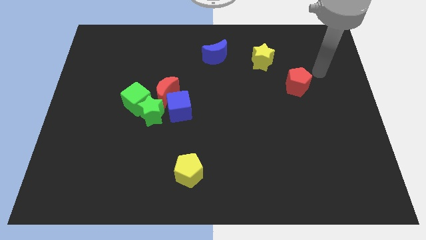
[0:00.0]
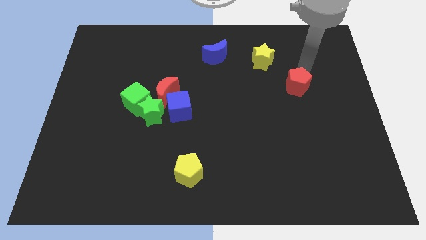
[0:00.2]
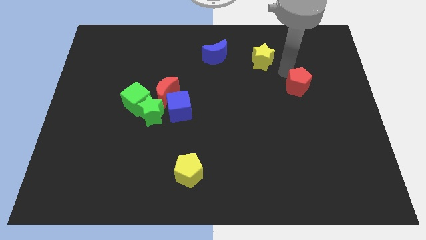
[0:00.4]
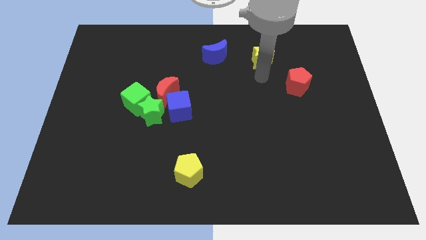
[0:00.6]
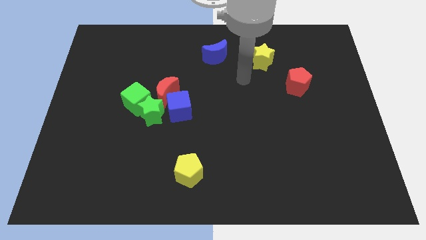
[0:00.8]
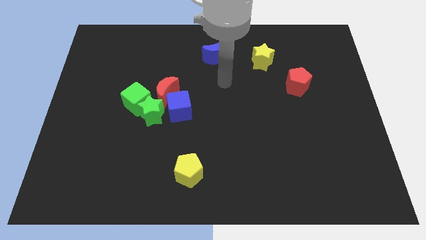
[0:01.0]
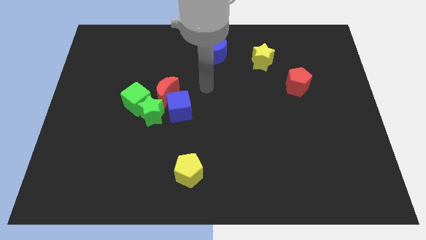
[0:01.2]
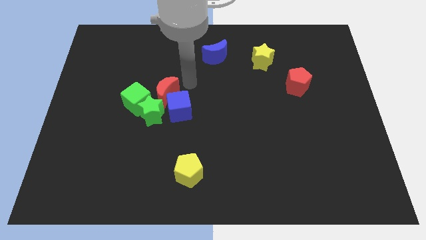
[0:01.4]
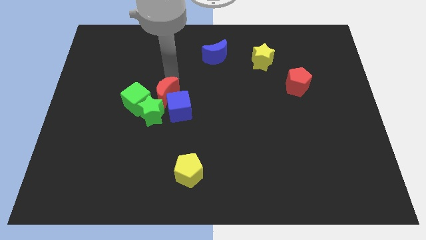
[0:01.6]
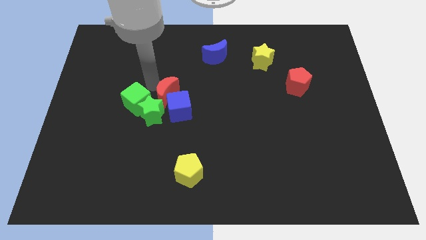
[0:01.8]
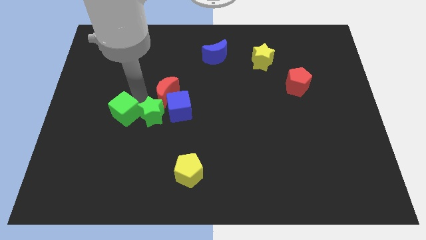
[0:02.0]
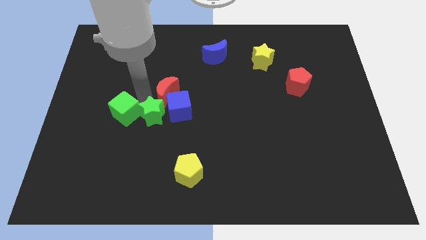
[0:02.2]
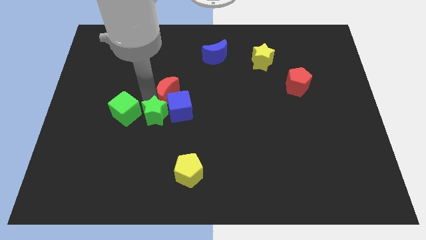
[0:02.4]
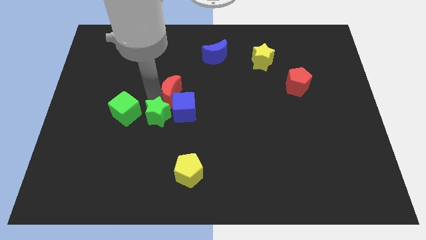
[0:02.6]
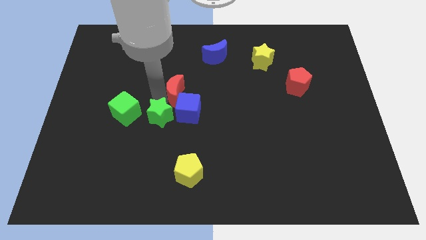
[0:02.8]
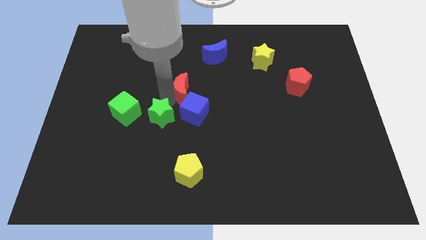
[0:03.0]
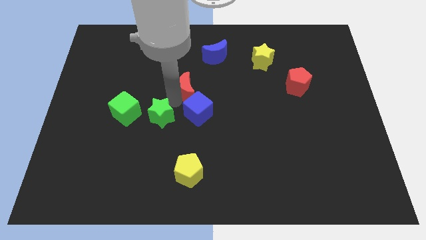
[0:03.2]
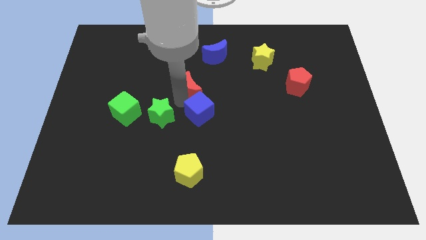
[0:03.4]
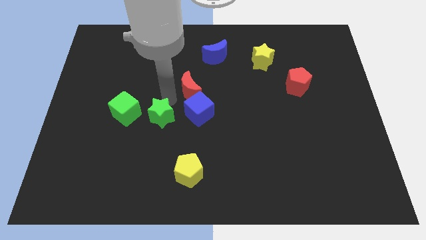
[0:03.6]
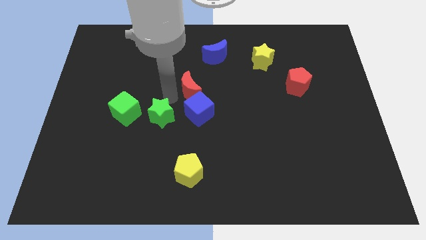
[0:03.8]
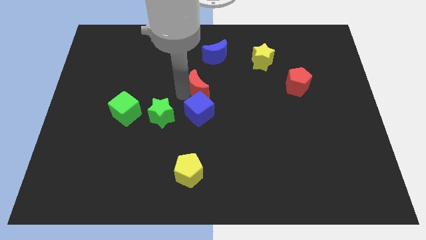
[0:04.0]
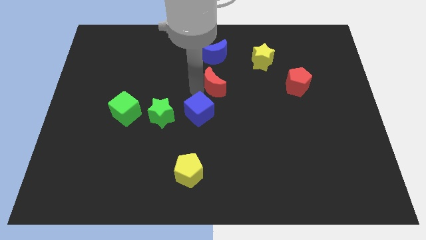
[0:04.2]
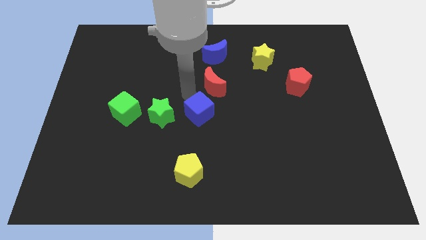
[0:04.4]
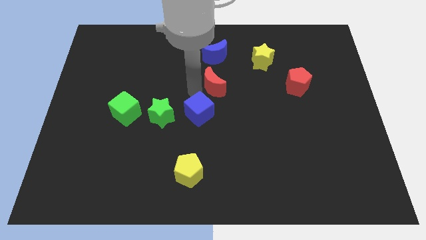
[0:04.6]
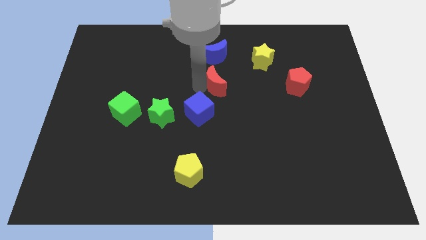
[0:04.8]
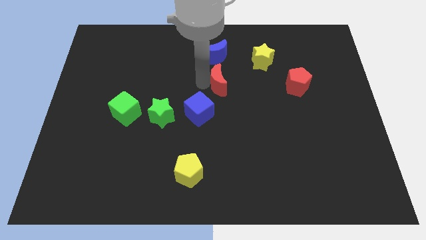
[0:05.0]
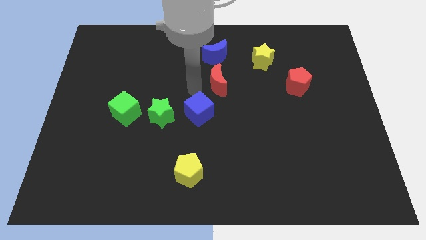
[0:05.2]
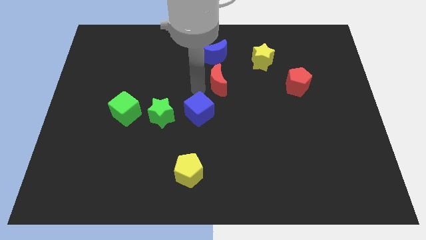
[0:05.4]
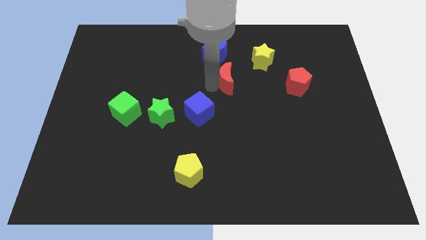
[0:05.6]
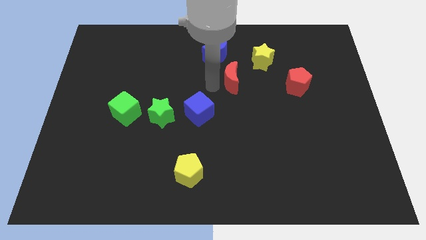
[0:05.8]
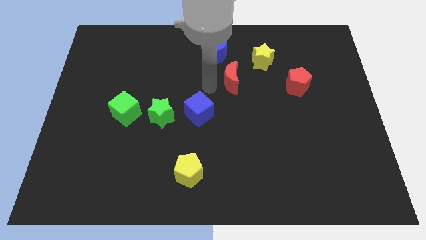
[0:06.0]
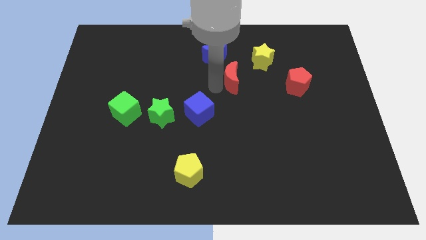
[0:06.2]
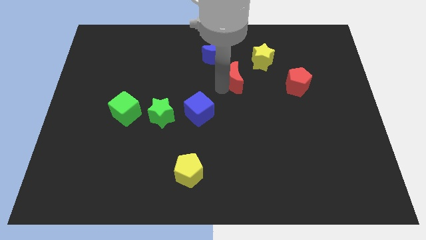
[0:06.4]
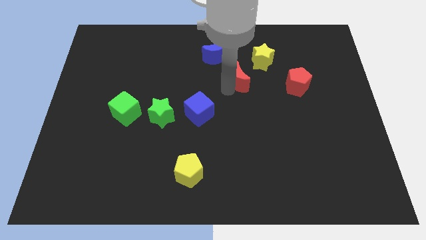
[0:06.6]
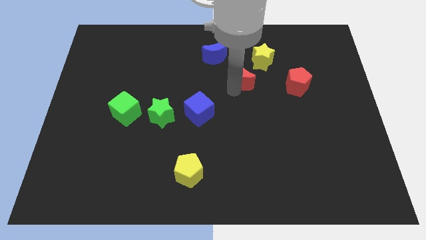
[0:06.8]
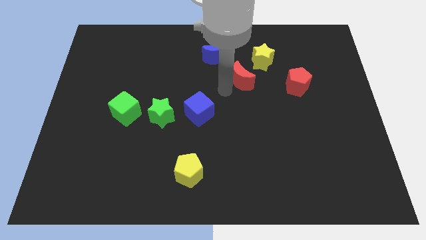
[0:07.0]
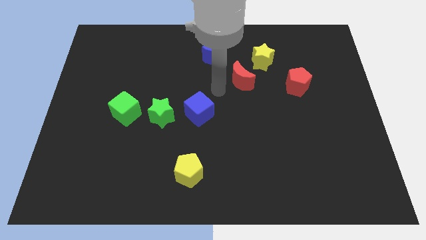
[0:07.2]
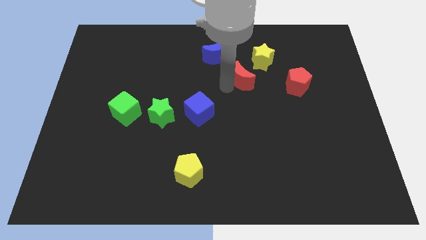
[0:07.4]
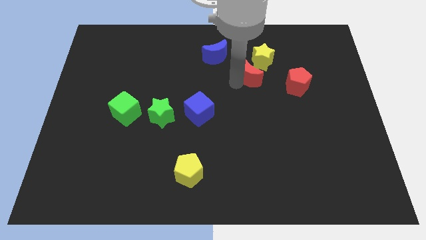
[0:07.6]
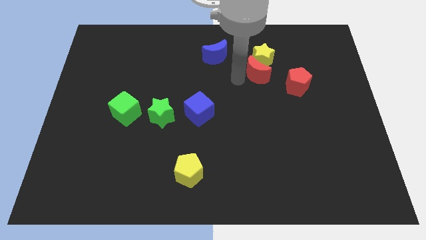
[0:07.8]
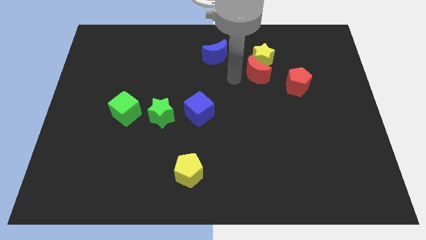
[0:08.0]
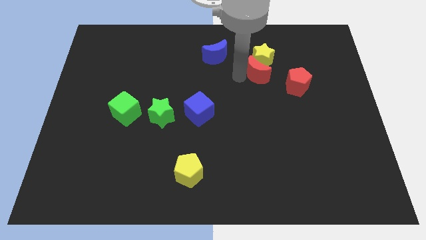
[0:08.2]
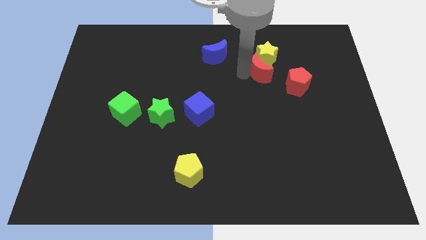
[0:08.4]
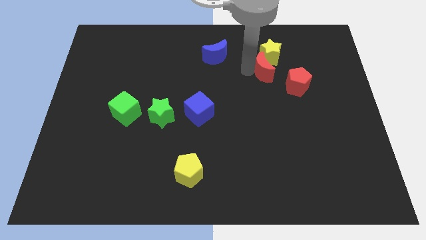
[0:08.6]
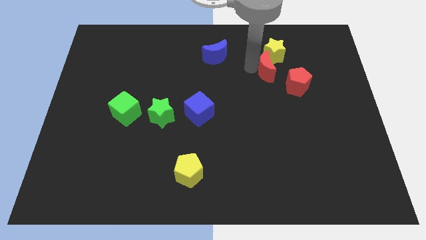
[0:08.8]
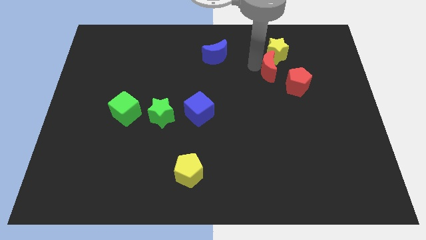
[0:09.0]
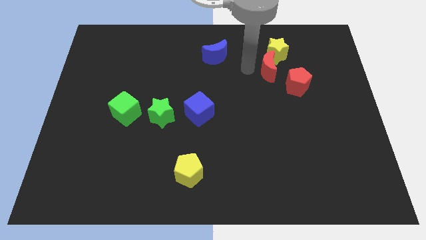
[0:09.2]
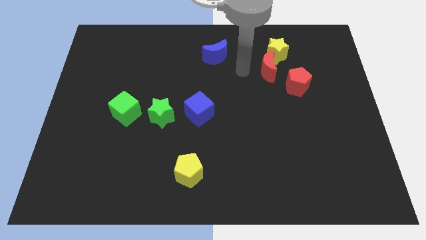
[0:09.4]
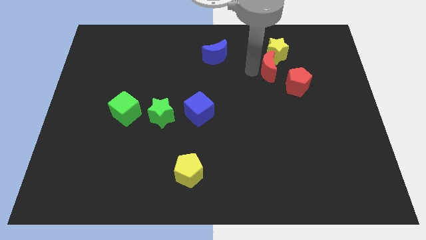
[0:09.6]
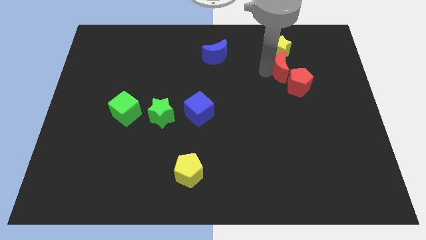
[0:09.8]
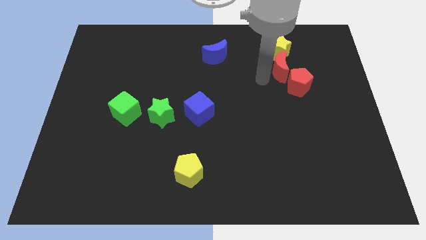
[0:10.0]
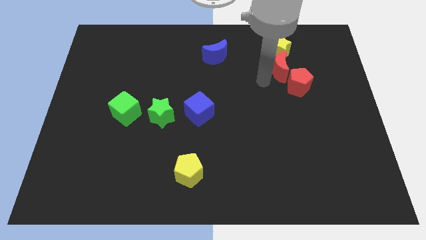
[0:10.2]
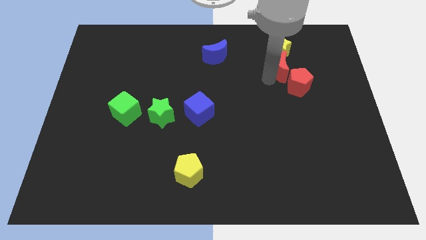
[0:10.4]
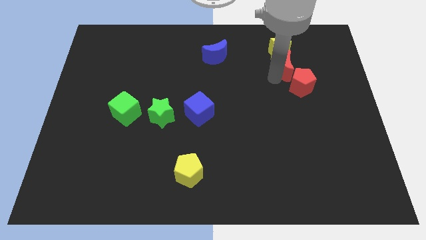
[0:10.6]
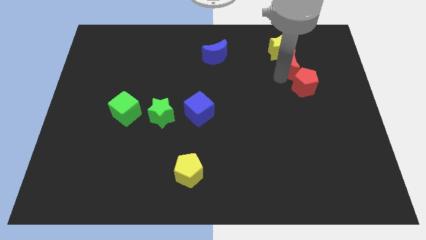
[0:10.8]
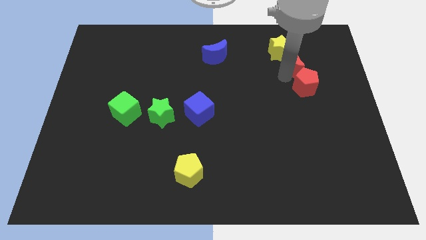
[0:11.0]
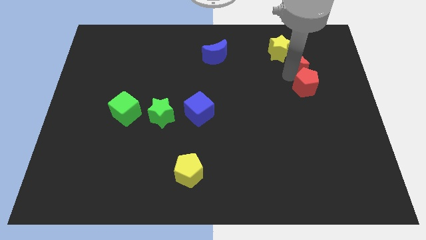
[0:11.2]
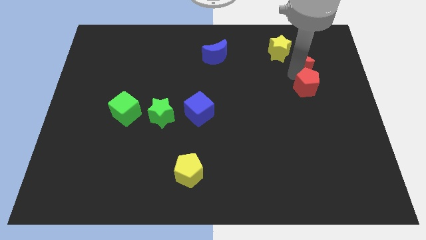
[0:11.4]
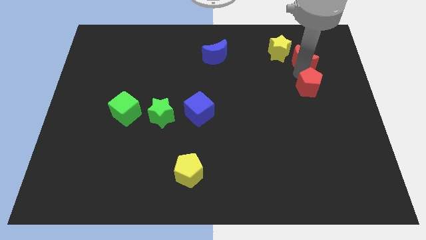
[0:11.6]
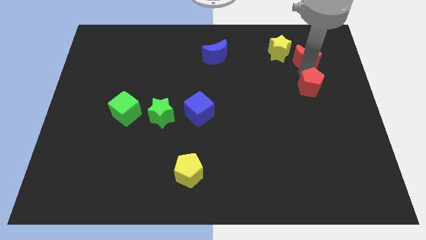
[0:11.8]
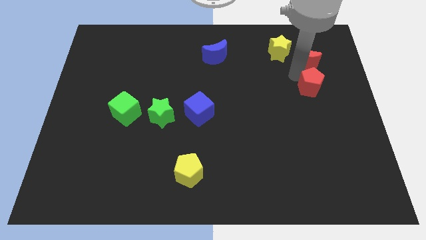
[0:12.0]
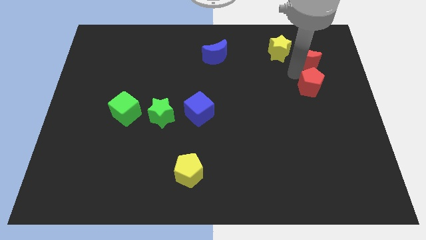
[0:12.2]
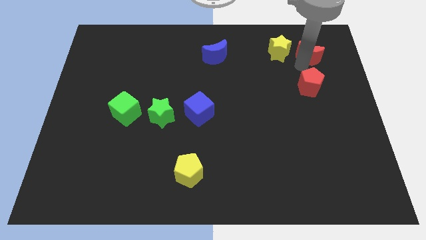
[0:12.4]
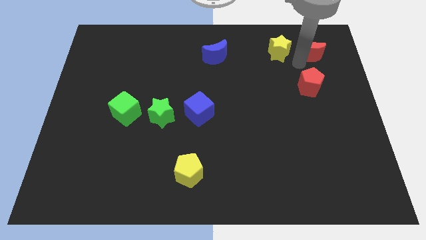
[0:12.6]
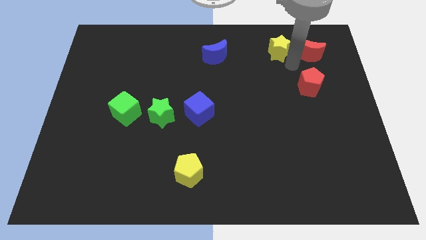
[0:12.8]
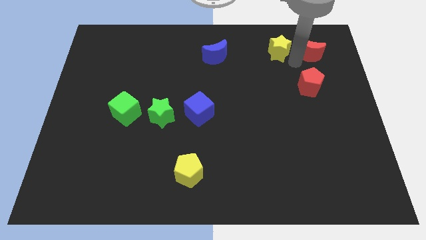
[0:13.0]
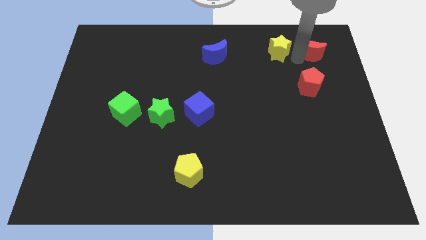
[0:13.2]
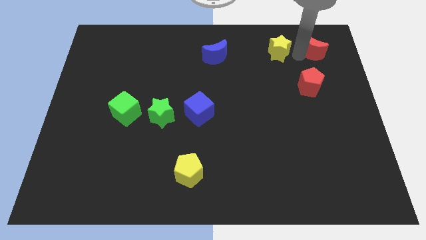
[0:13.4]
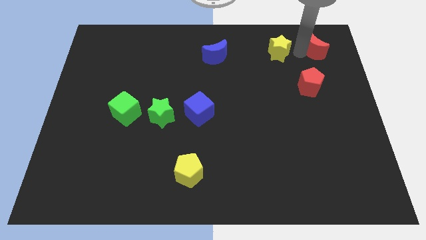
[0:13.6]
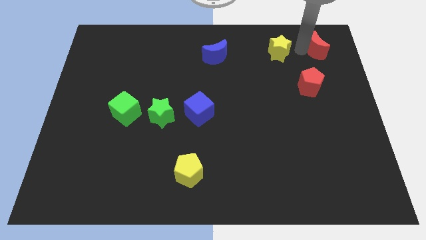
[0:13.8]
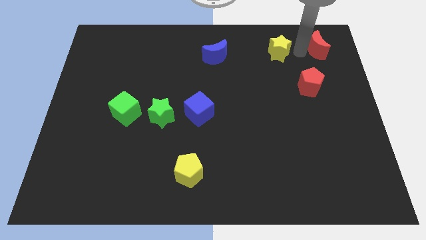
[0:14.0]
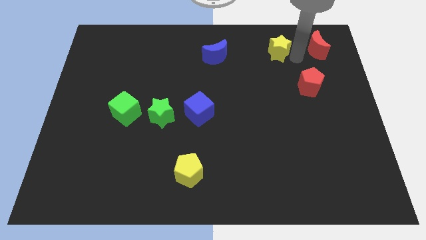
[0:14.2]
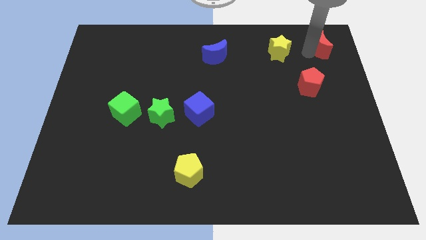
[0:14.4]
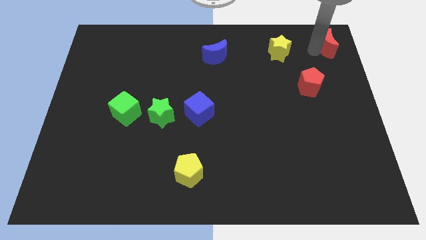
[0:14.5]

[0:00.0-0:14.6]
put the red moon to the top right corner
